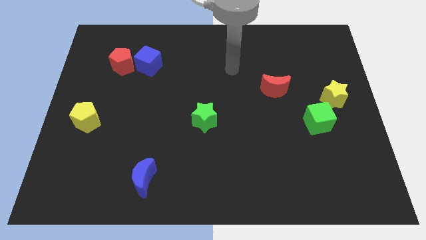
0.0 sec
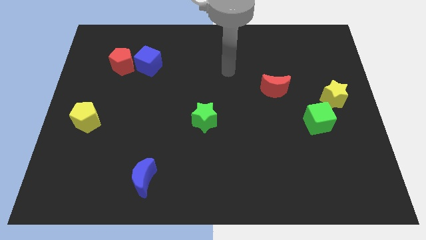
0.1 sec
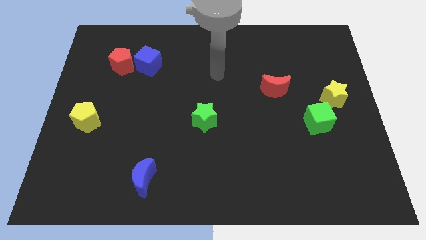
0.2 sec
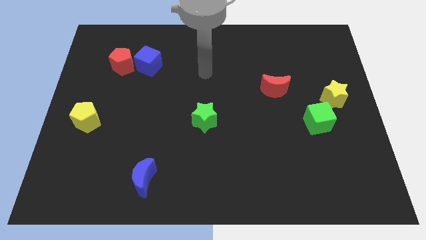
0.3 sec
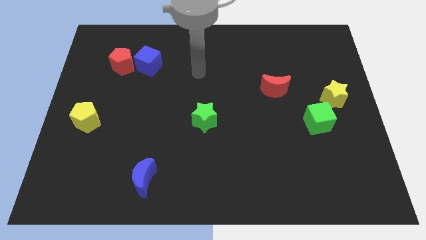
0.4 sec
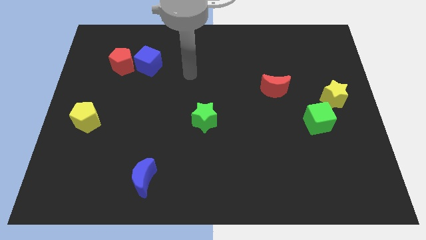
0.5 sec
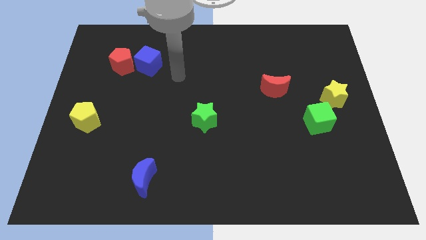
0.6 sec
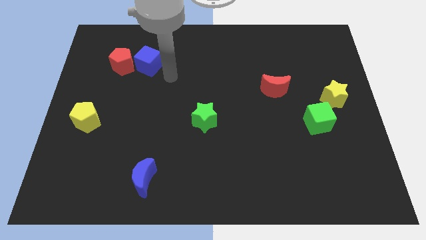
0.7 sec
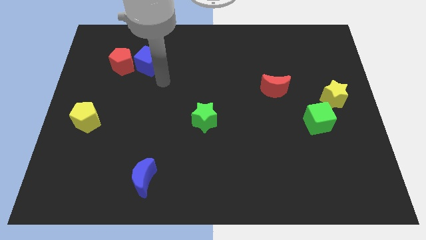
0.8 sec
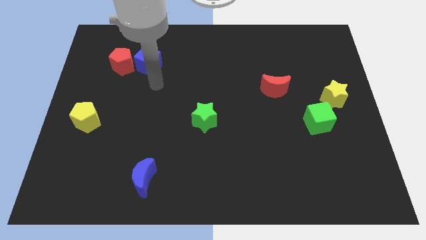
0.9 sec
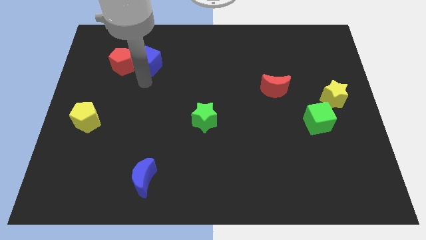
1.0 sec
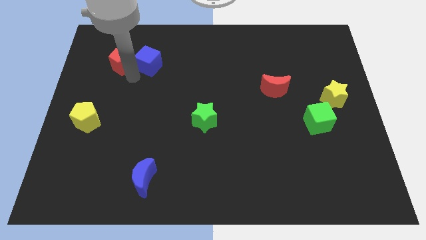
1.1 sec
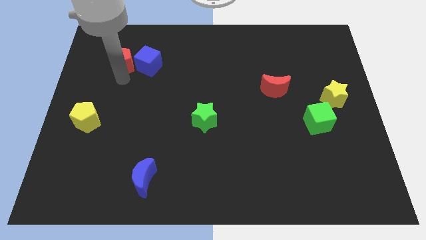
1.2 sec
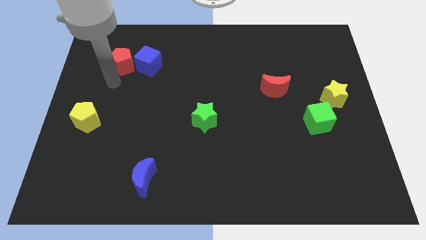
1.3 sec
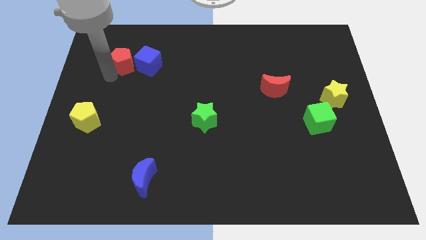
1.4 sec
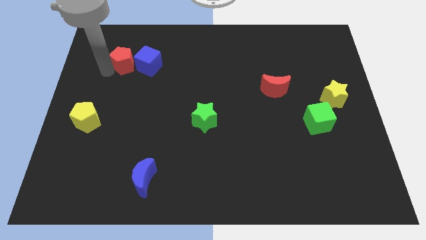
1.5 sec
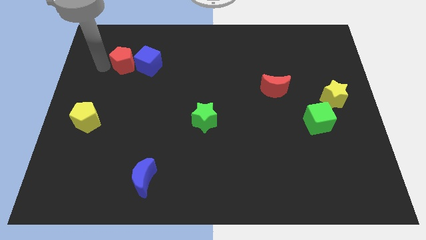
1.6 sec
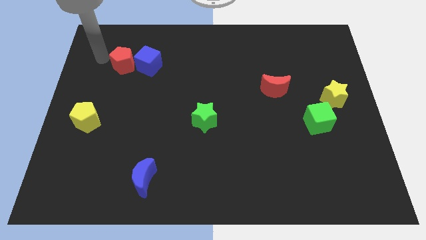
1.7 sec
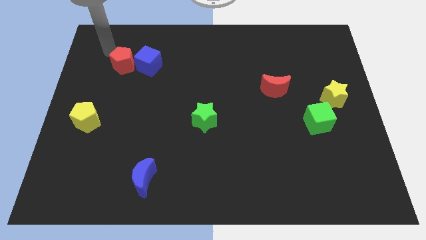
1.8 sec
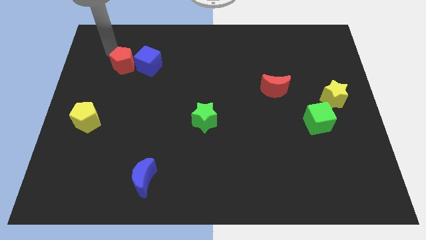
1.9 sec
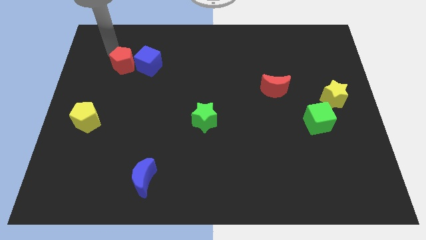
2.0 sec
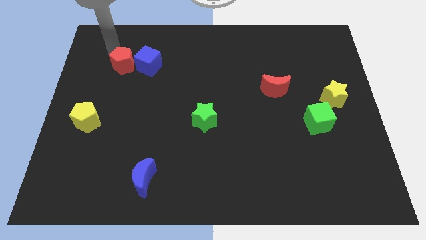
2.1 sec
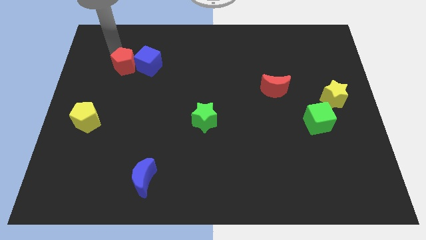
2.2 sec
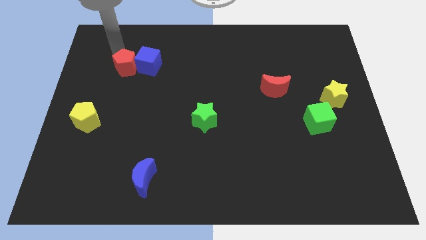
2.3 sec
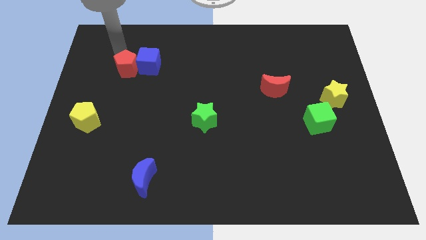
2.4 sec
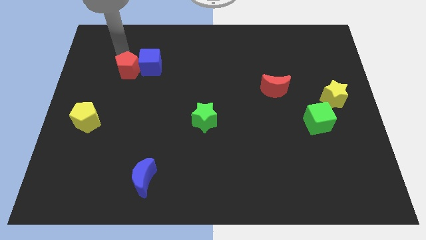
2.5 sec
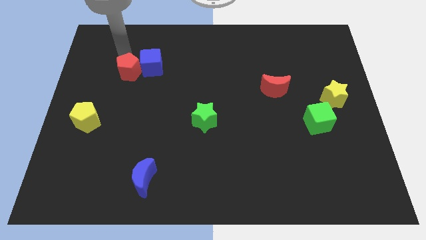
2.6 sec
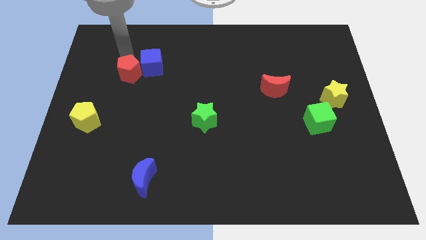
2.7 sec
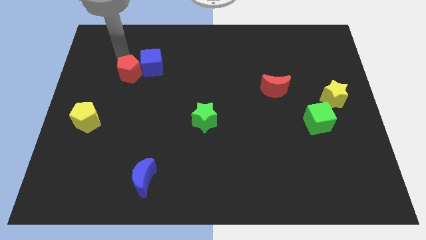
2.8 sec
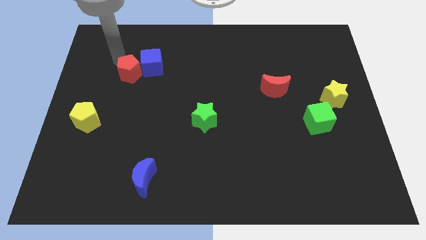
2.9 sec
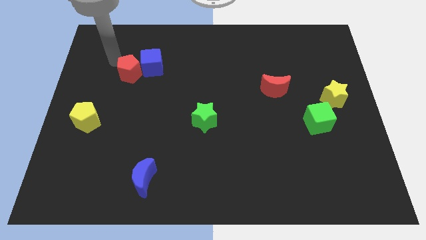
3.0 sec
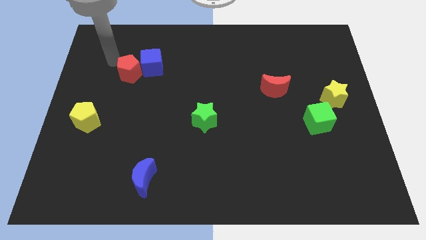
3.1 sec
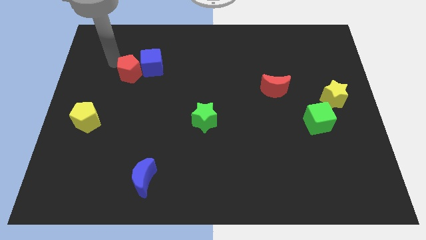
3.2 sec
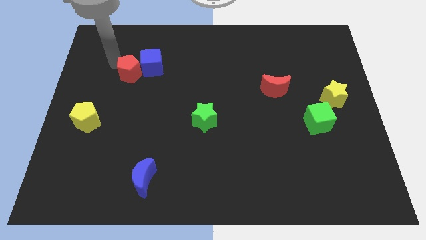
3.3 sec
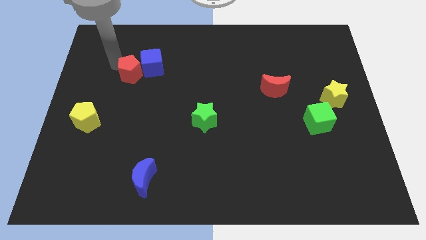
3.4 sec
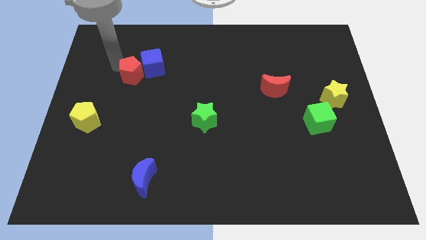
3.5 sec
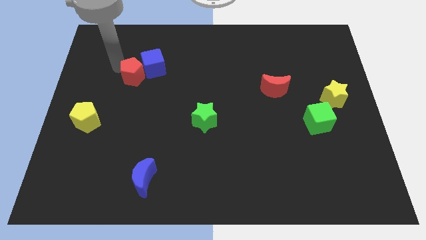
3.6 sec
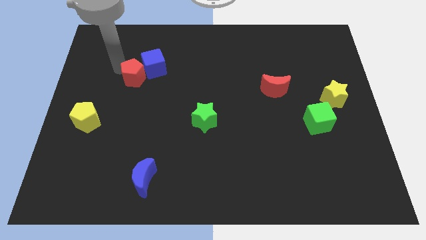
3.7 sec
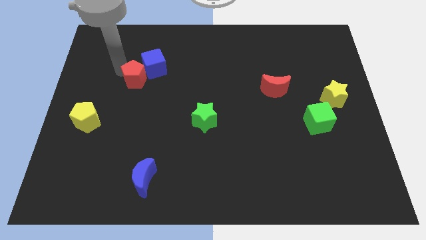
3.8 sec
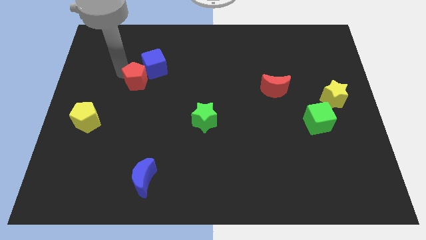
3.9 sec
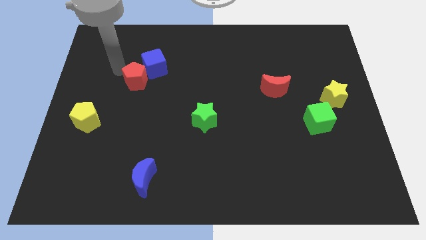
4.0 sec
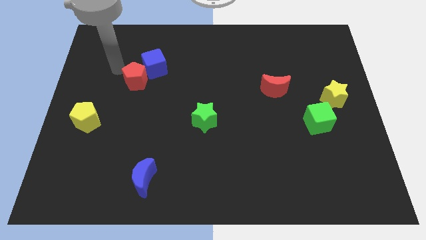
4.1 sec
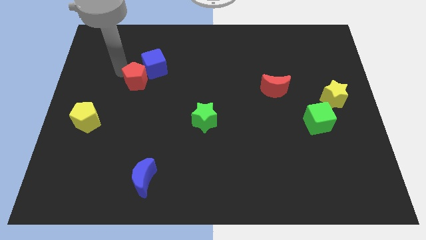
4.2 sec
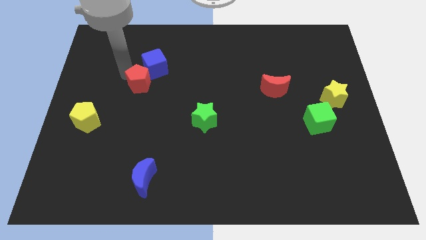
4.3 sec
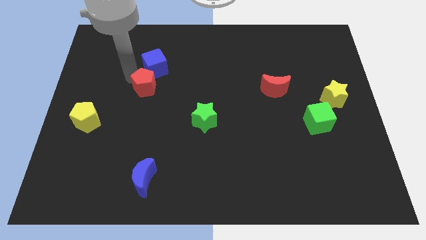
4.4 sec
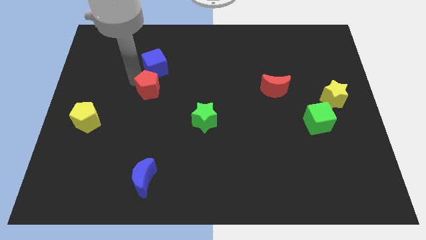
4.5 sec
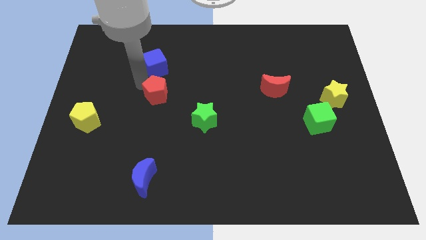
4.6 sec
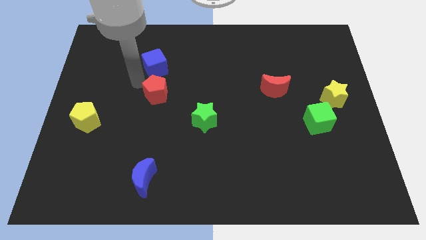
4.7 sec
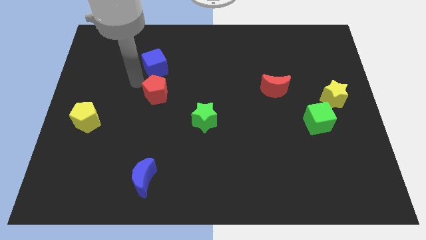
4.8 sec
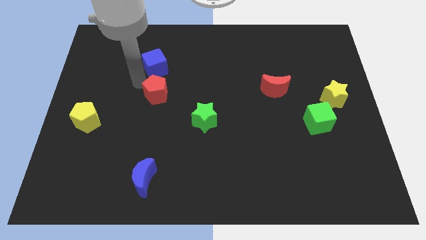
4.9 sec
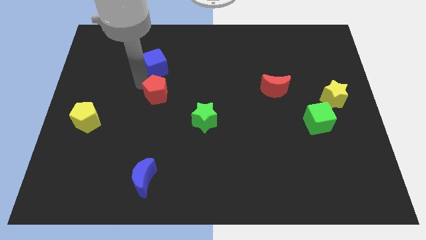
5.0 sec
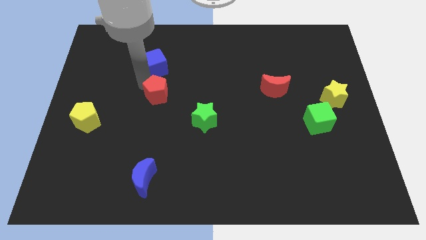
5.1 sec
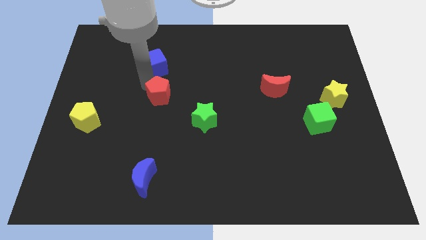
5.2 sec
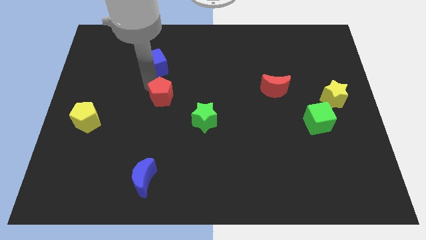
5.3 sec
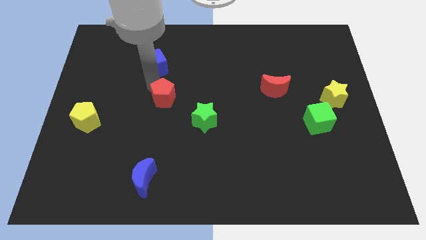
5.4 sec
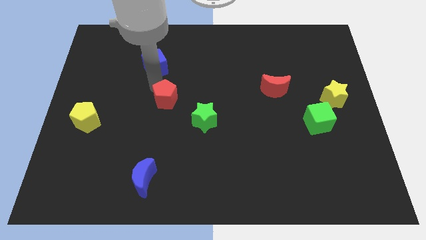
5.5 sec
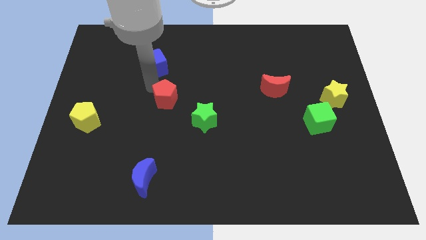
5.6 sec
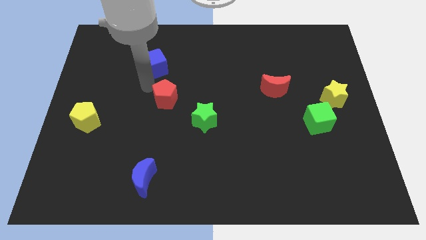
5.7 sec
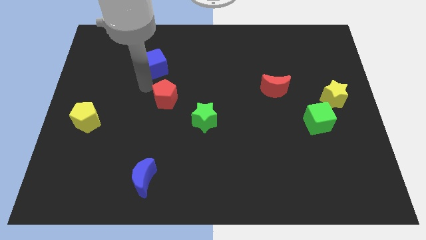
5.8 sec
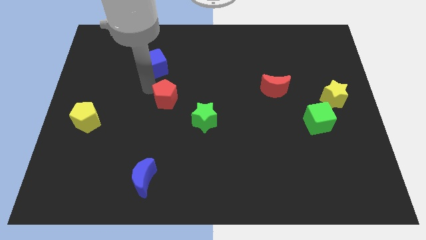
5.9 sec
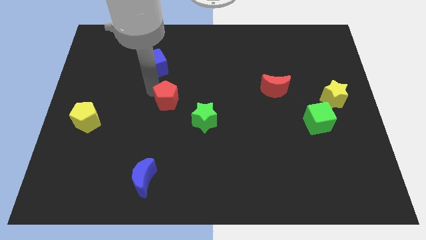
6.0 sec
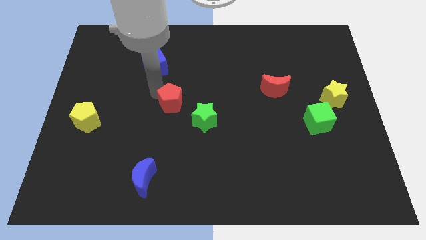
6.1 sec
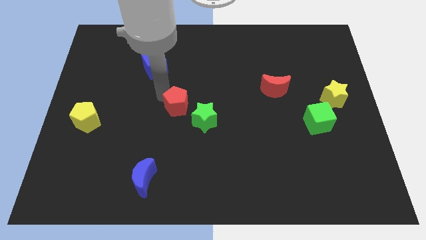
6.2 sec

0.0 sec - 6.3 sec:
move the red pentagon down and then to the right

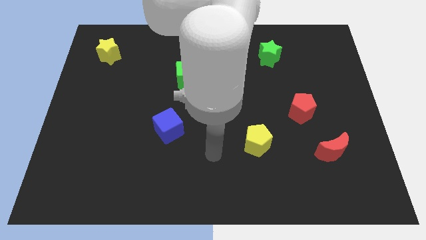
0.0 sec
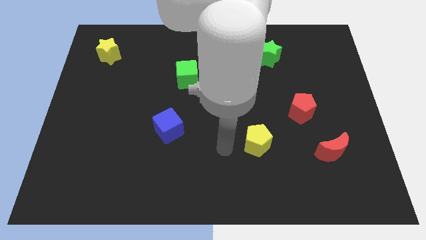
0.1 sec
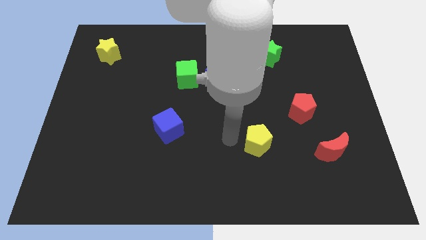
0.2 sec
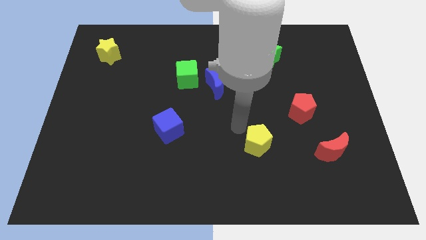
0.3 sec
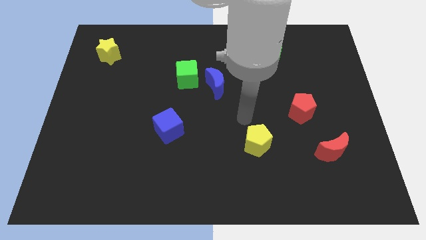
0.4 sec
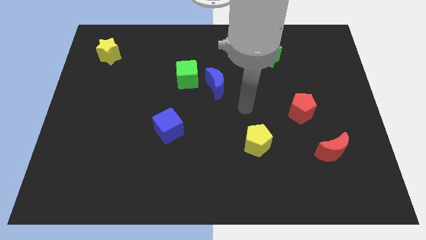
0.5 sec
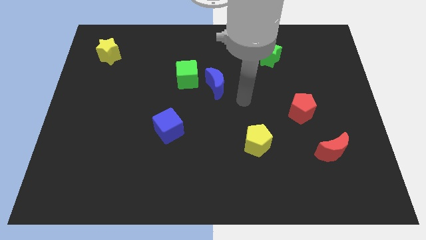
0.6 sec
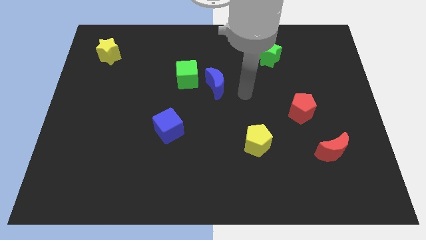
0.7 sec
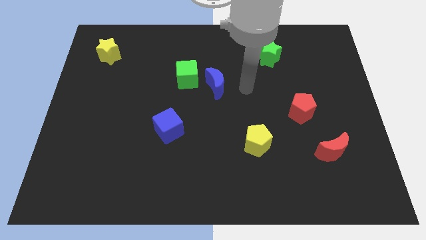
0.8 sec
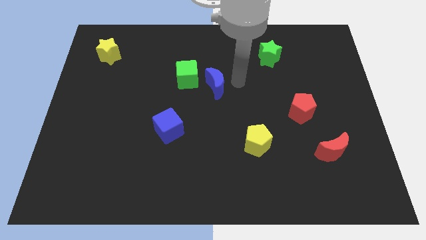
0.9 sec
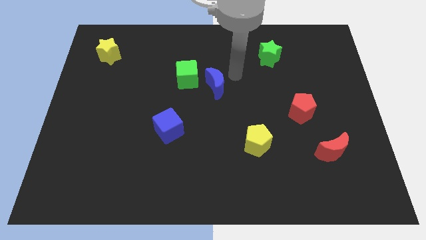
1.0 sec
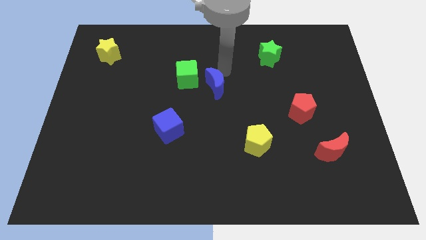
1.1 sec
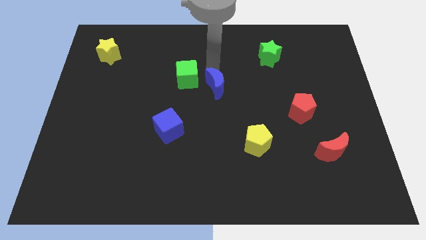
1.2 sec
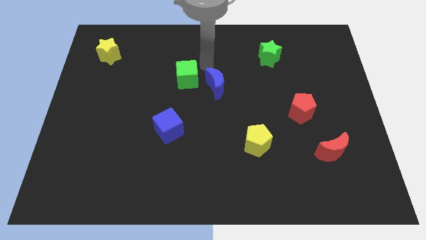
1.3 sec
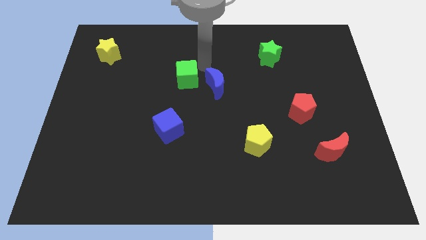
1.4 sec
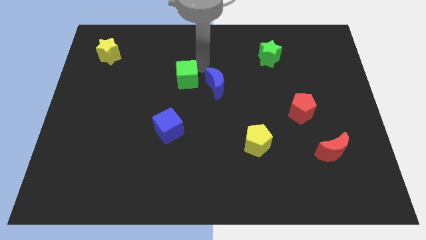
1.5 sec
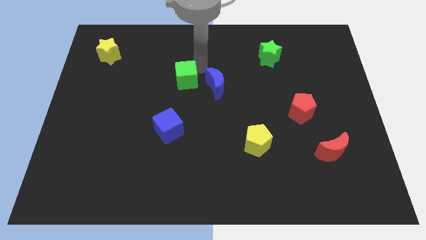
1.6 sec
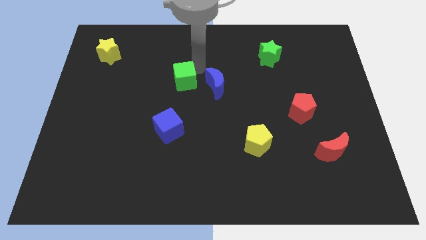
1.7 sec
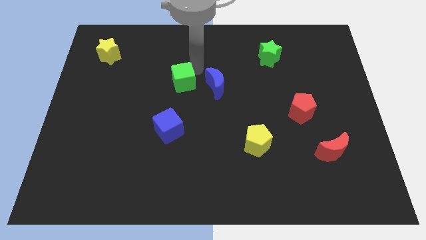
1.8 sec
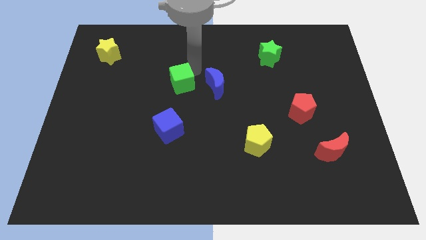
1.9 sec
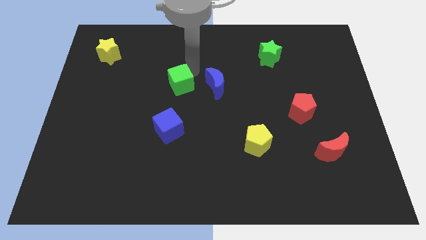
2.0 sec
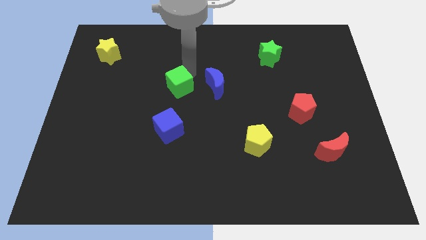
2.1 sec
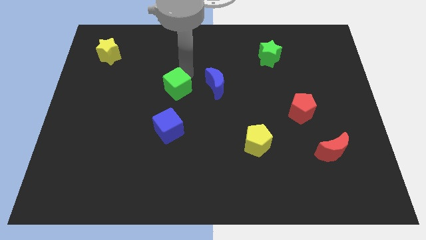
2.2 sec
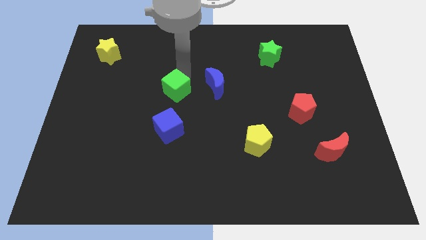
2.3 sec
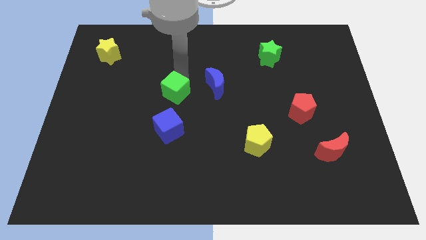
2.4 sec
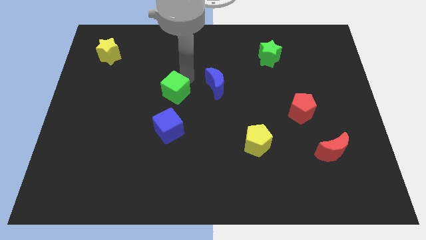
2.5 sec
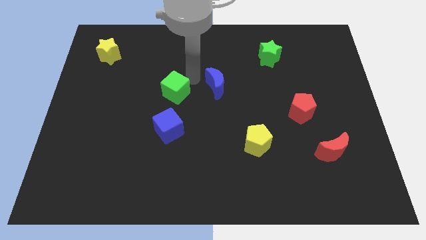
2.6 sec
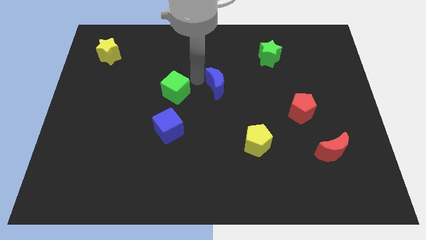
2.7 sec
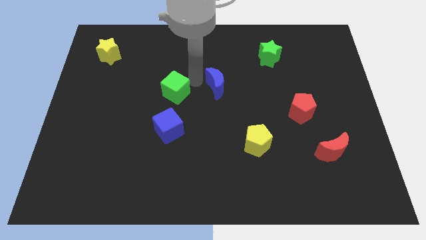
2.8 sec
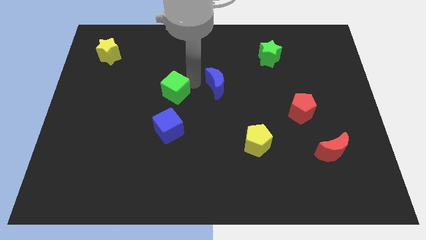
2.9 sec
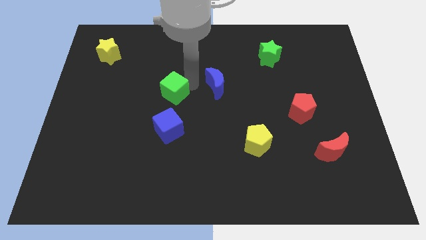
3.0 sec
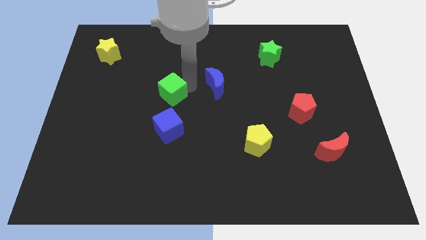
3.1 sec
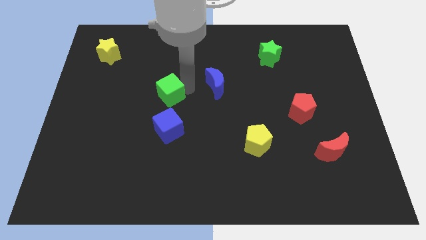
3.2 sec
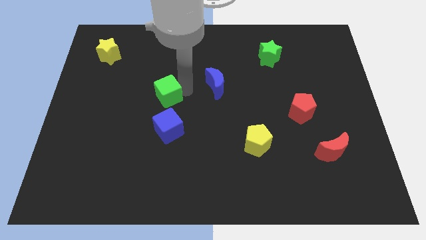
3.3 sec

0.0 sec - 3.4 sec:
move the green cube slightly downwards and then to the left
